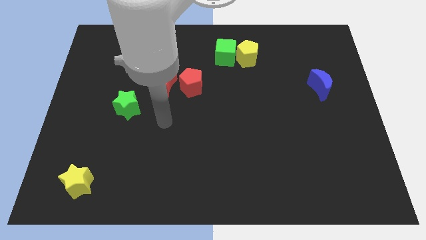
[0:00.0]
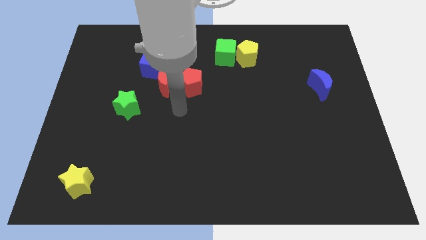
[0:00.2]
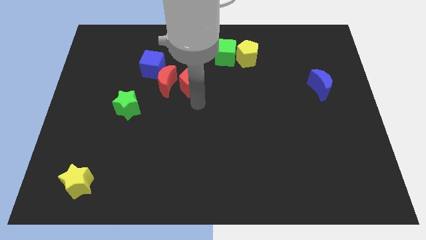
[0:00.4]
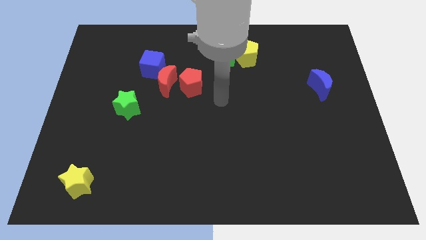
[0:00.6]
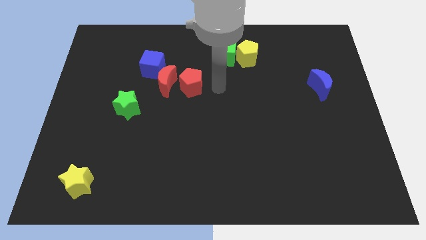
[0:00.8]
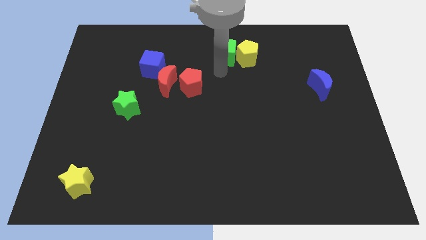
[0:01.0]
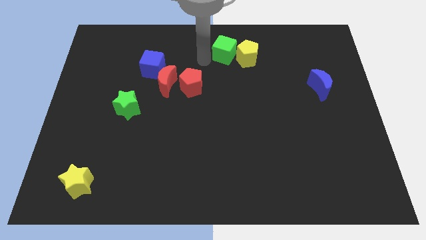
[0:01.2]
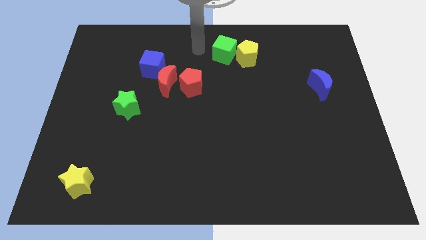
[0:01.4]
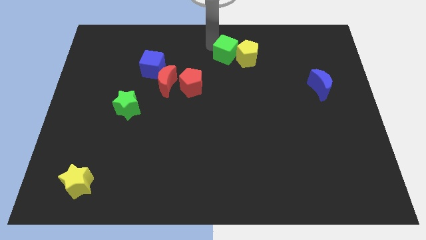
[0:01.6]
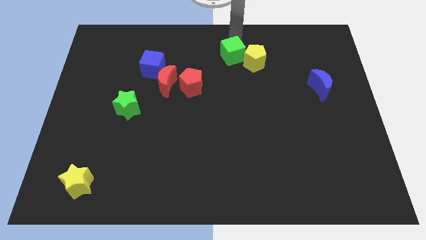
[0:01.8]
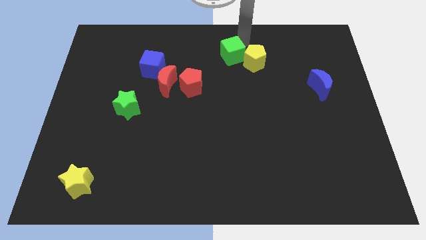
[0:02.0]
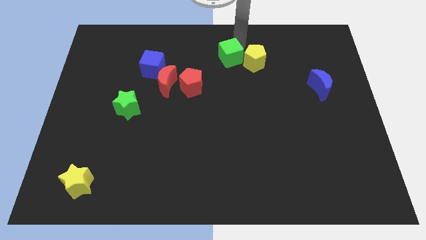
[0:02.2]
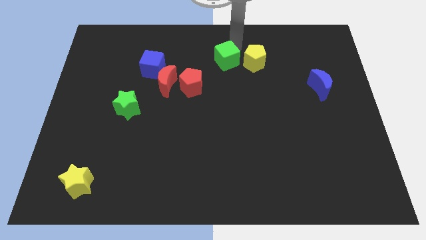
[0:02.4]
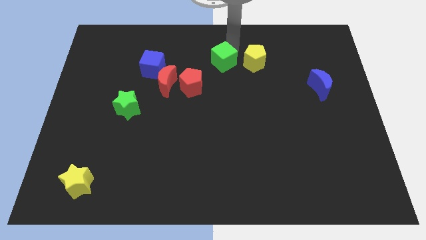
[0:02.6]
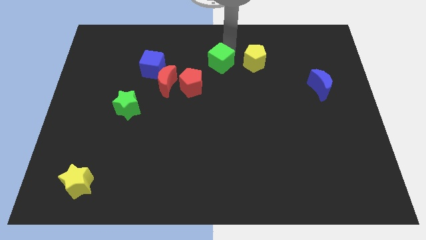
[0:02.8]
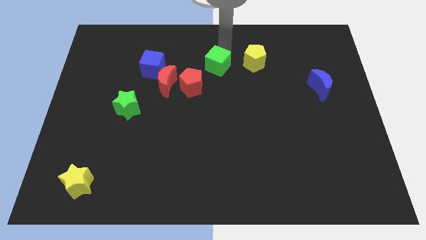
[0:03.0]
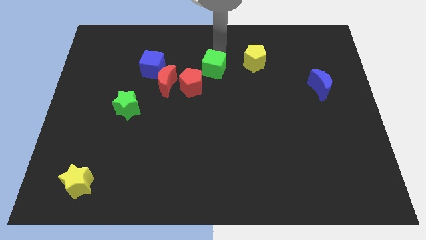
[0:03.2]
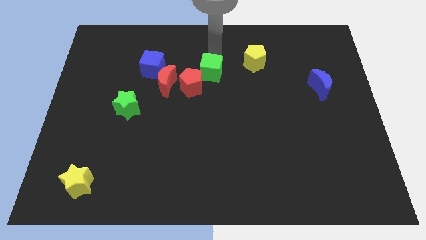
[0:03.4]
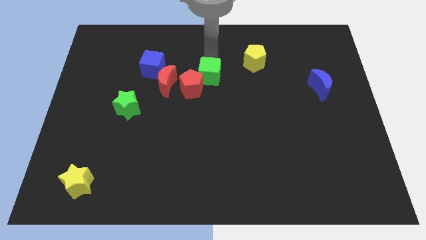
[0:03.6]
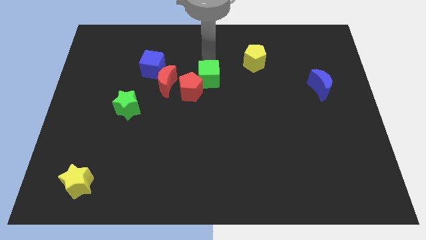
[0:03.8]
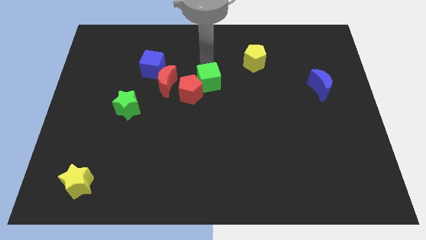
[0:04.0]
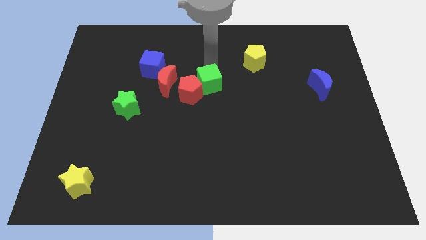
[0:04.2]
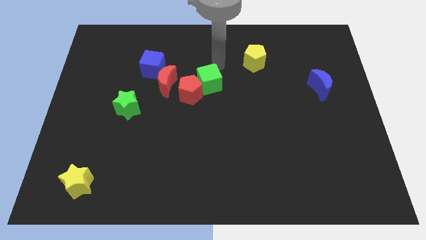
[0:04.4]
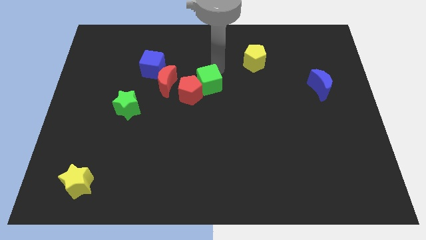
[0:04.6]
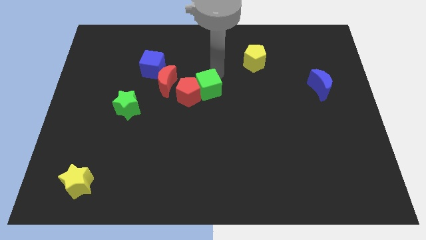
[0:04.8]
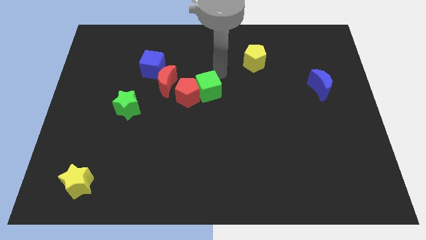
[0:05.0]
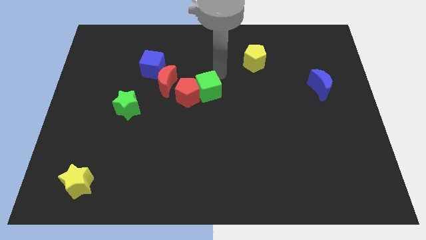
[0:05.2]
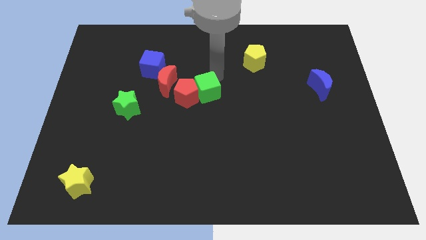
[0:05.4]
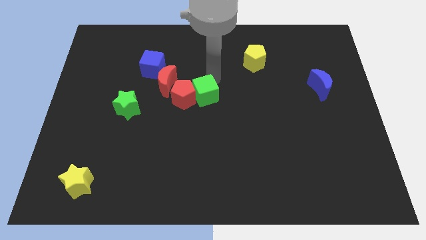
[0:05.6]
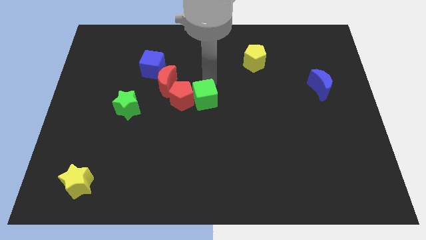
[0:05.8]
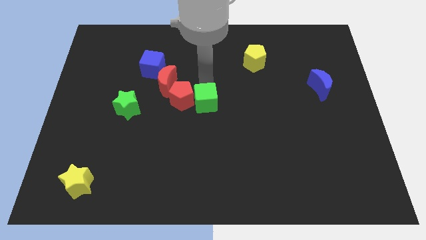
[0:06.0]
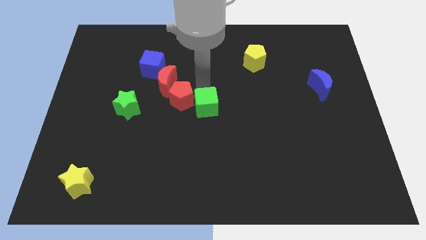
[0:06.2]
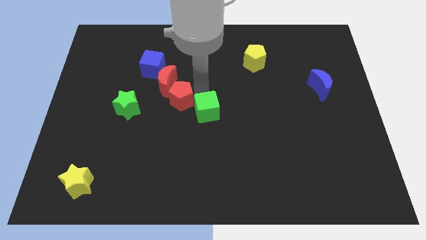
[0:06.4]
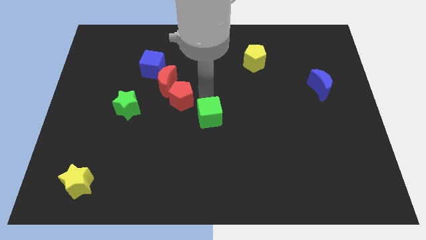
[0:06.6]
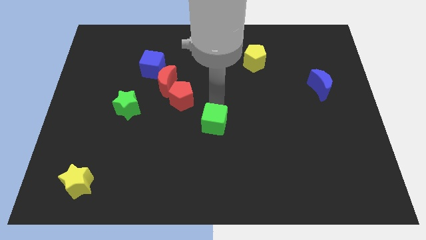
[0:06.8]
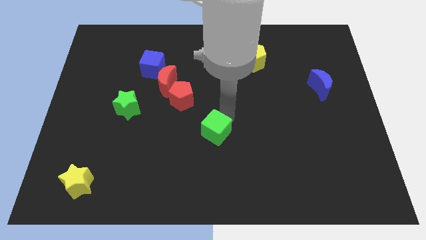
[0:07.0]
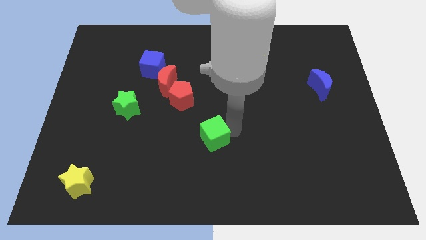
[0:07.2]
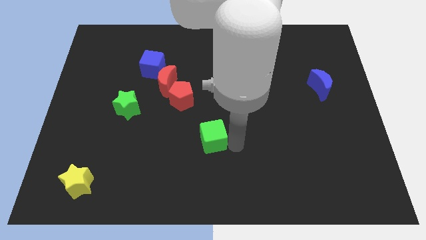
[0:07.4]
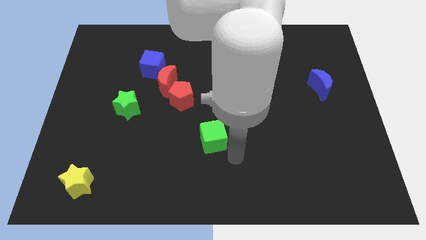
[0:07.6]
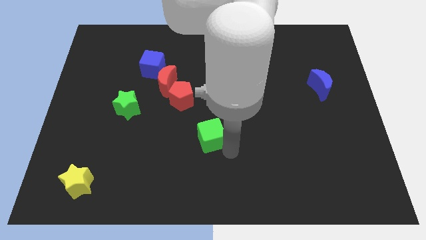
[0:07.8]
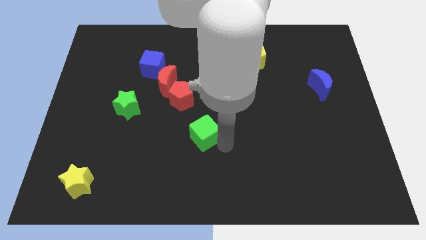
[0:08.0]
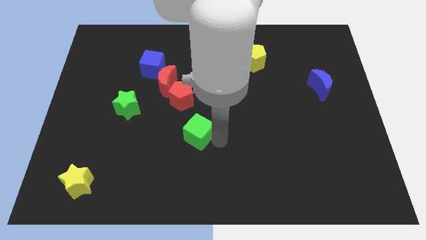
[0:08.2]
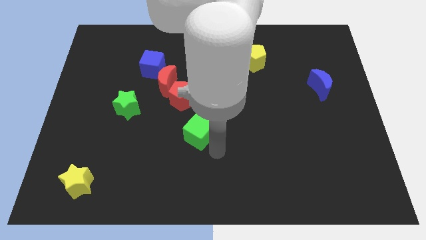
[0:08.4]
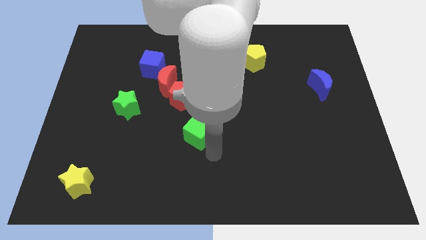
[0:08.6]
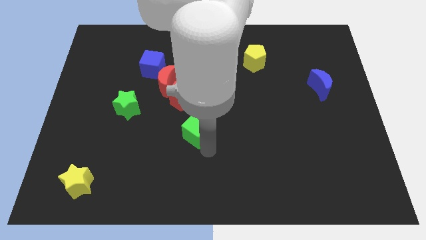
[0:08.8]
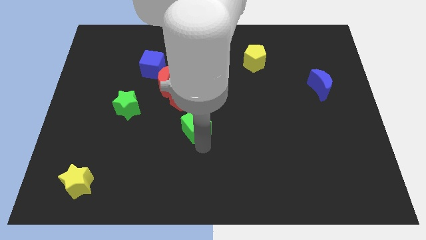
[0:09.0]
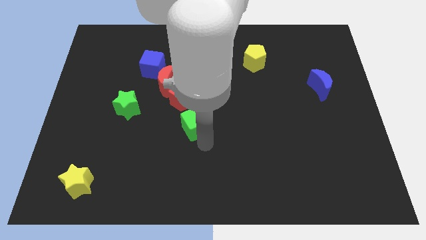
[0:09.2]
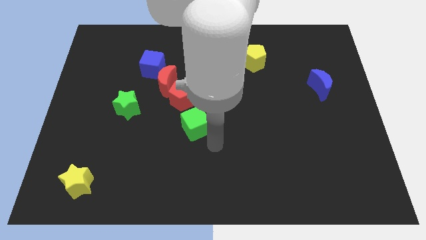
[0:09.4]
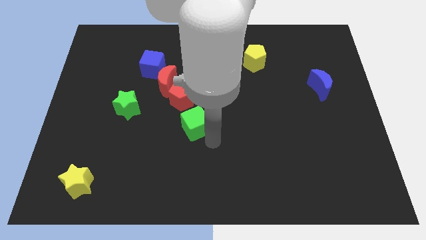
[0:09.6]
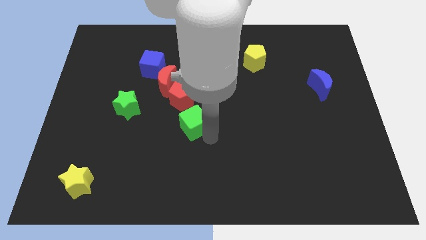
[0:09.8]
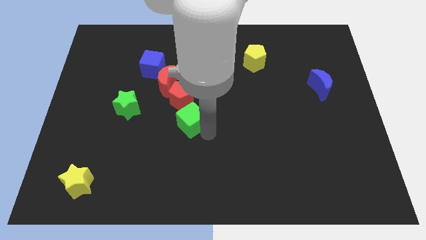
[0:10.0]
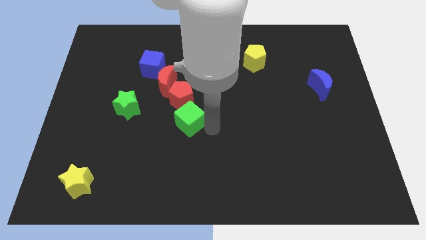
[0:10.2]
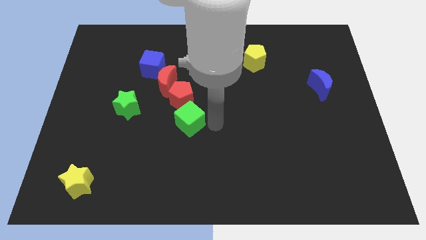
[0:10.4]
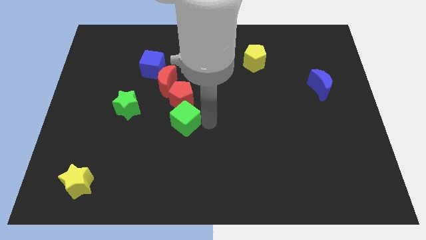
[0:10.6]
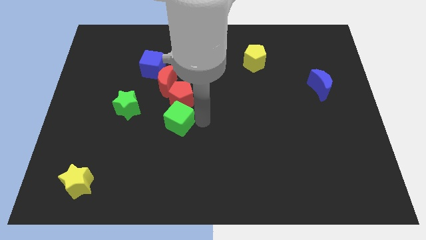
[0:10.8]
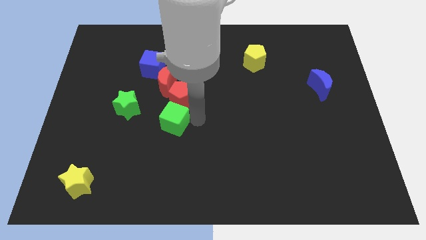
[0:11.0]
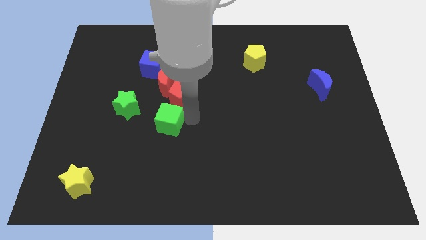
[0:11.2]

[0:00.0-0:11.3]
move the green cube to the bottom right side of the green star

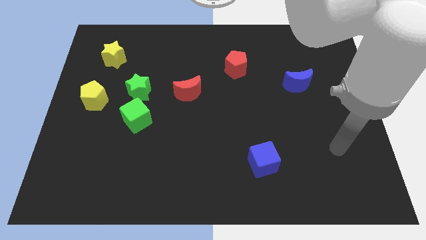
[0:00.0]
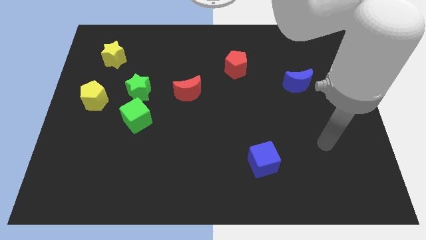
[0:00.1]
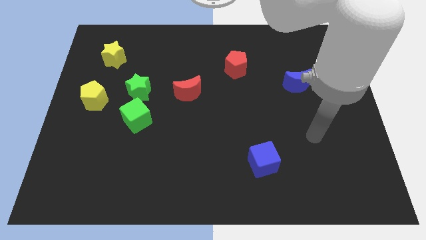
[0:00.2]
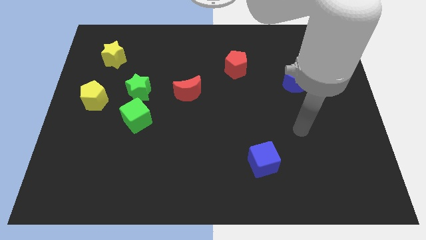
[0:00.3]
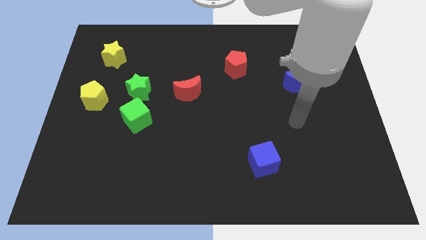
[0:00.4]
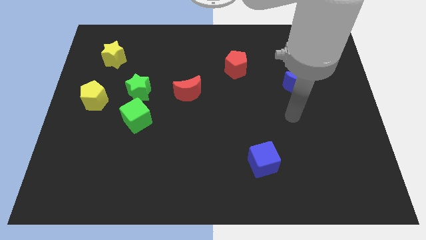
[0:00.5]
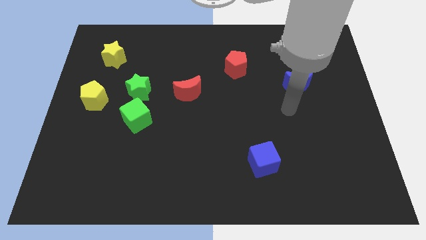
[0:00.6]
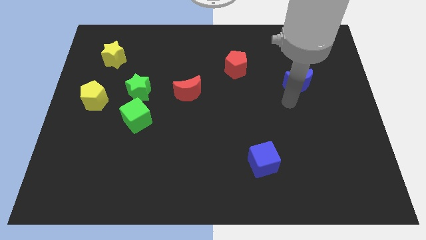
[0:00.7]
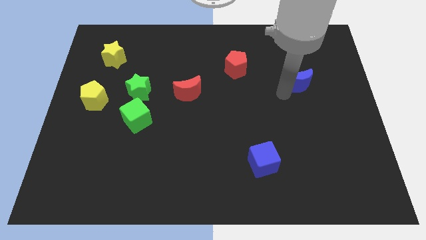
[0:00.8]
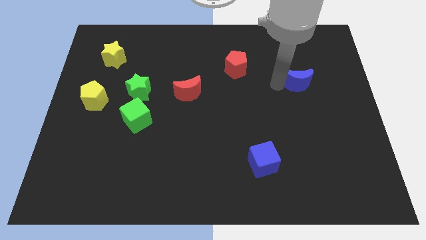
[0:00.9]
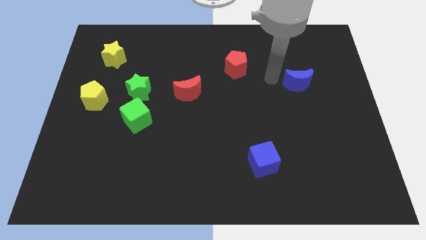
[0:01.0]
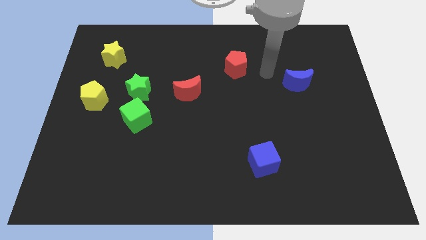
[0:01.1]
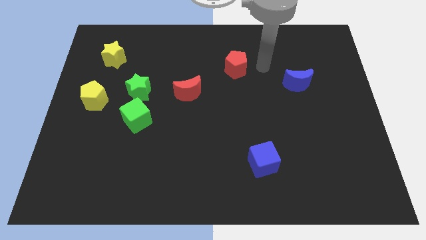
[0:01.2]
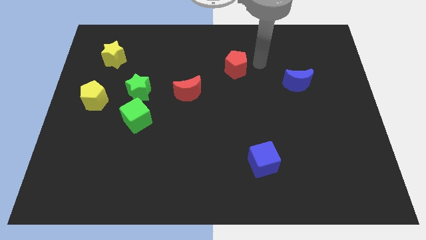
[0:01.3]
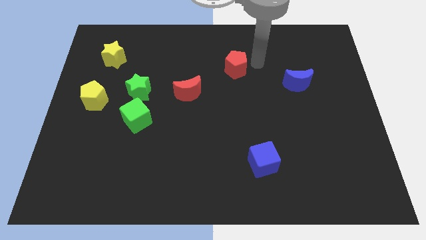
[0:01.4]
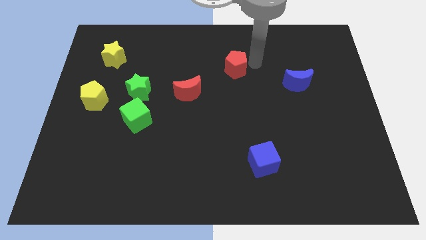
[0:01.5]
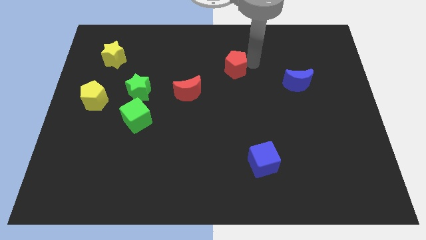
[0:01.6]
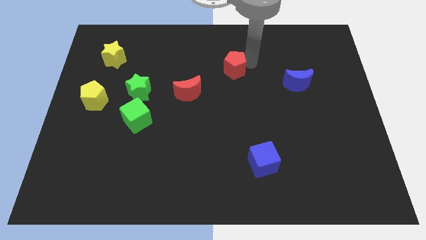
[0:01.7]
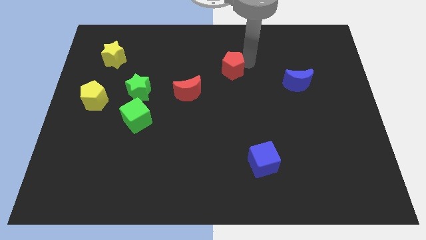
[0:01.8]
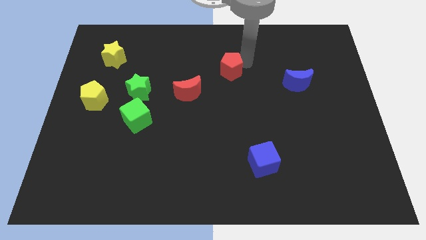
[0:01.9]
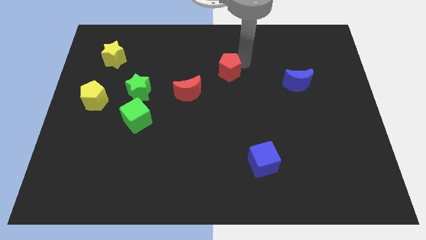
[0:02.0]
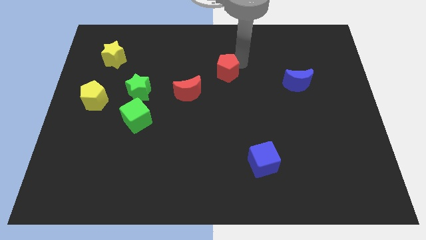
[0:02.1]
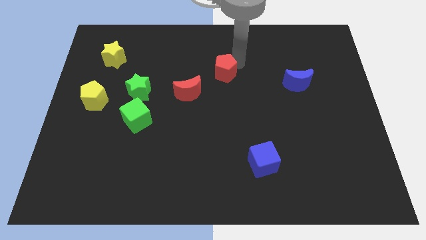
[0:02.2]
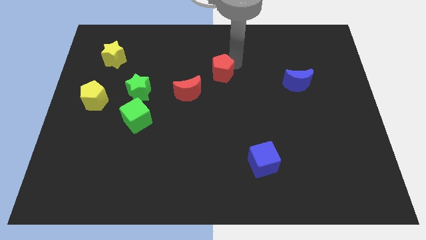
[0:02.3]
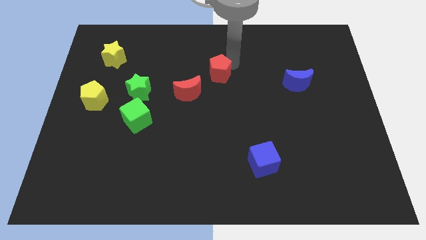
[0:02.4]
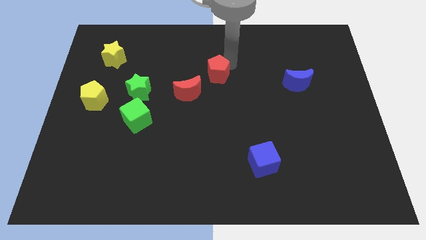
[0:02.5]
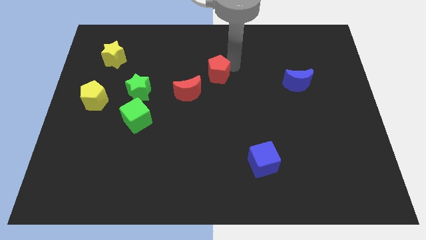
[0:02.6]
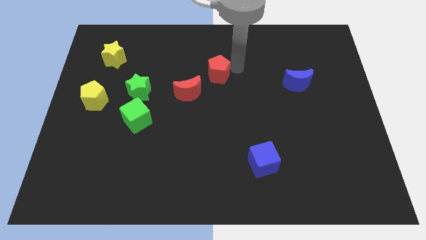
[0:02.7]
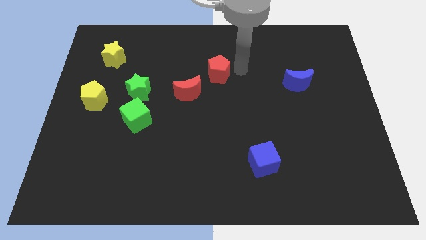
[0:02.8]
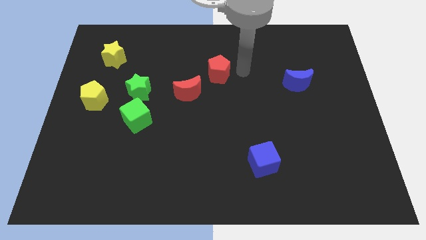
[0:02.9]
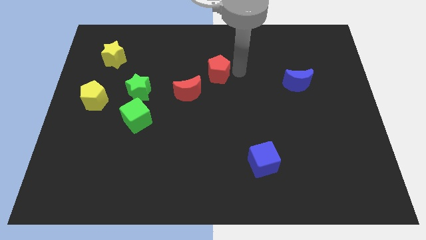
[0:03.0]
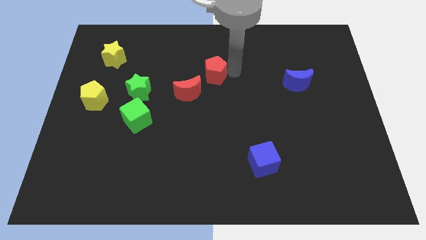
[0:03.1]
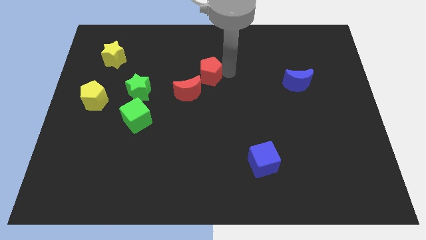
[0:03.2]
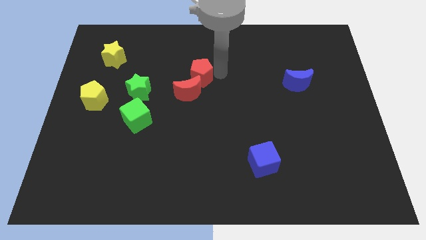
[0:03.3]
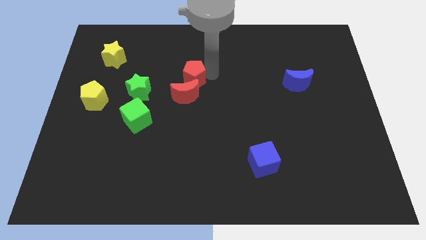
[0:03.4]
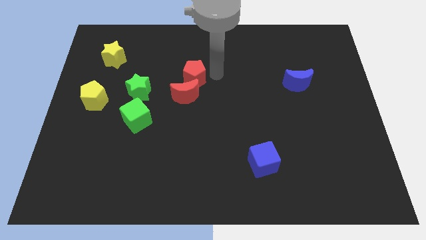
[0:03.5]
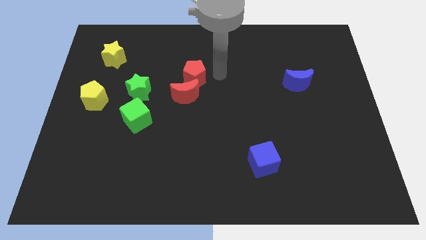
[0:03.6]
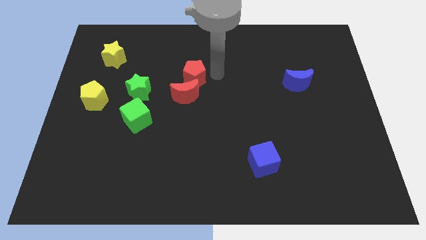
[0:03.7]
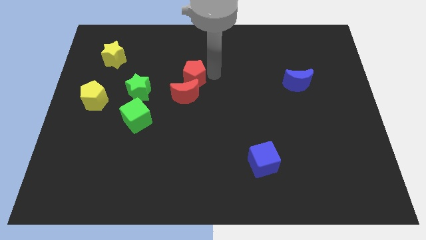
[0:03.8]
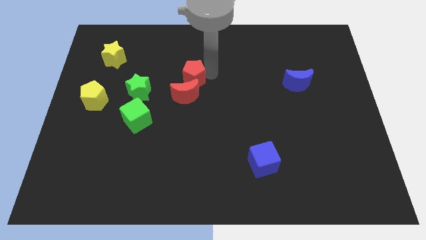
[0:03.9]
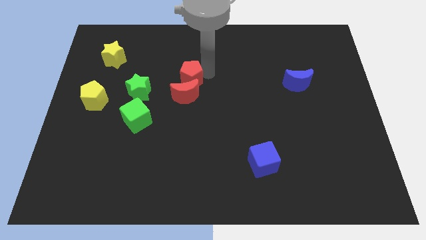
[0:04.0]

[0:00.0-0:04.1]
push the red pentagon to the top left side of the red moon
